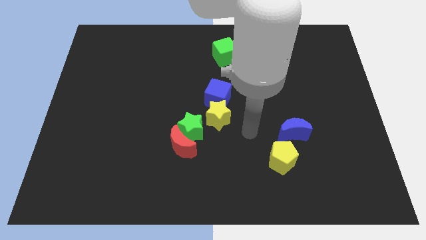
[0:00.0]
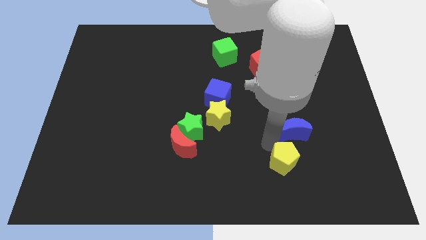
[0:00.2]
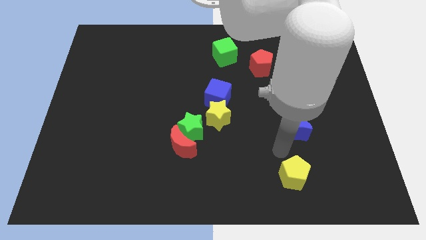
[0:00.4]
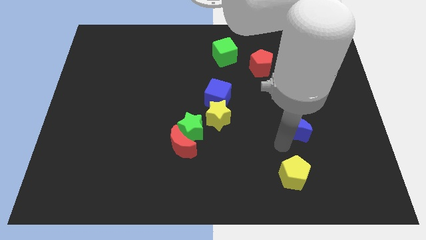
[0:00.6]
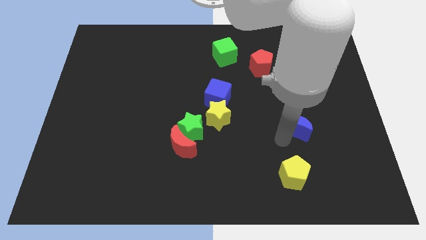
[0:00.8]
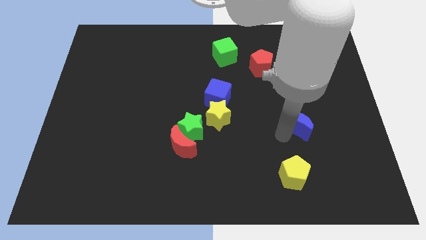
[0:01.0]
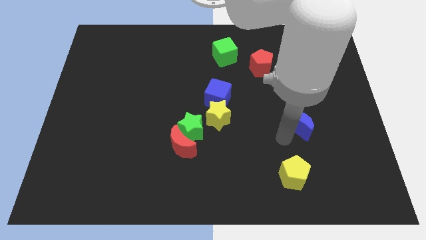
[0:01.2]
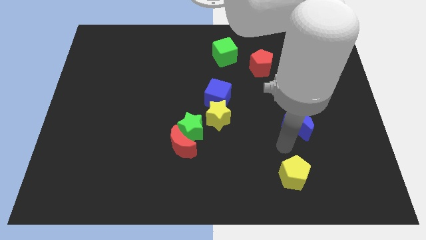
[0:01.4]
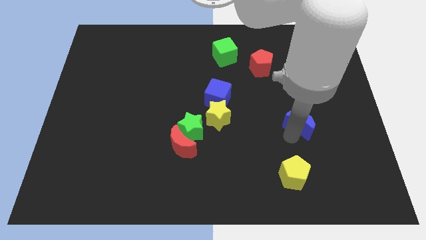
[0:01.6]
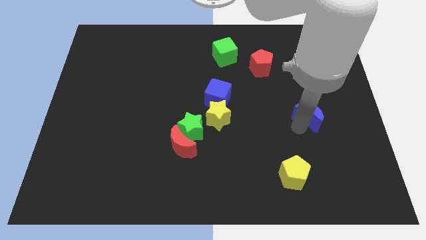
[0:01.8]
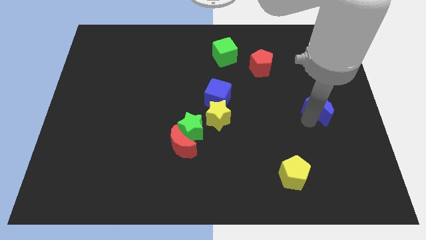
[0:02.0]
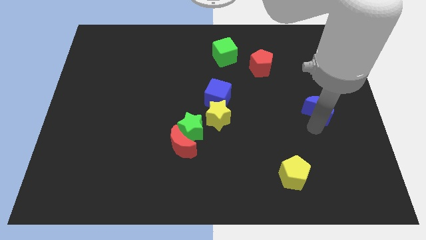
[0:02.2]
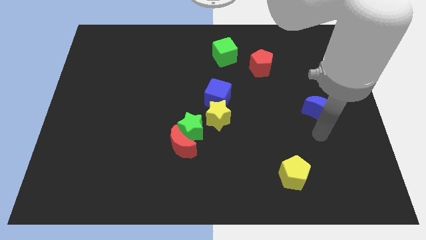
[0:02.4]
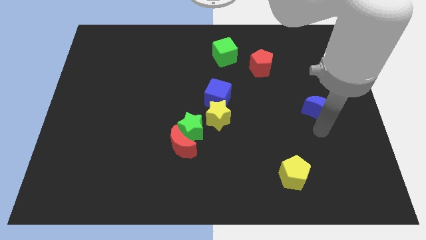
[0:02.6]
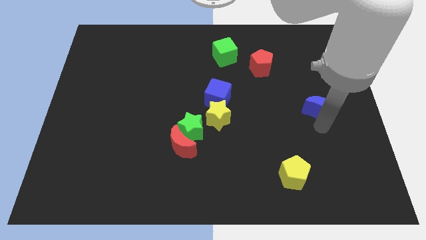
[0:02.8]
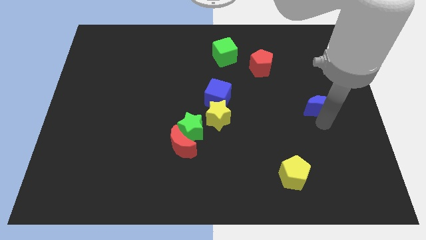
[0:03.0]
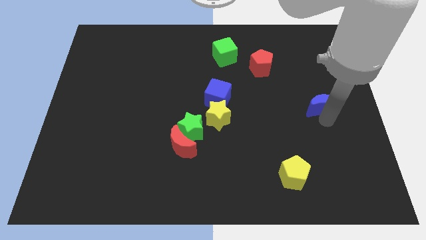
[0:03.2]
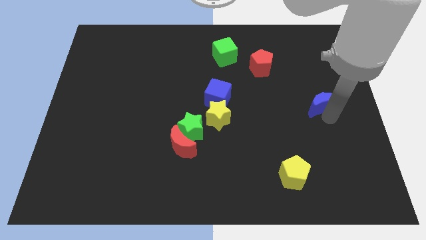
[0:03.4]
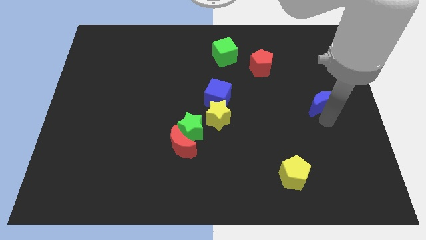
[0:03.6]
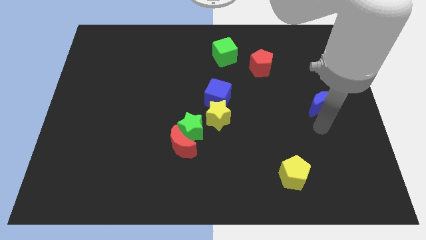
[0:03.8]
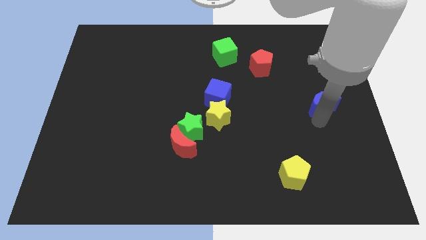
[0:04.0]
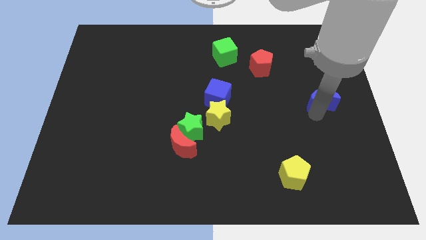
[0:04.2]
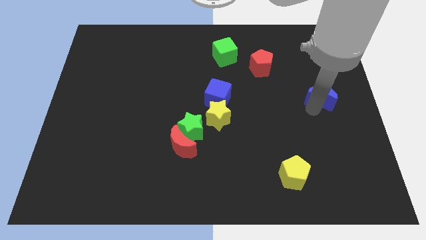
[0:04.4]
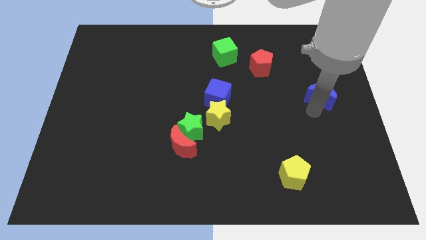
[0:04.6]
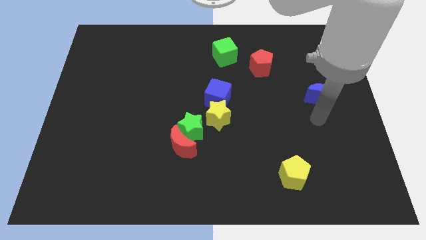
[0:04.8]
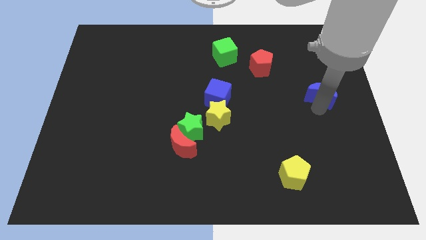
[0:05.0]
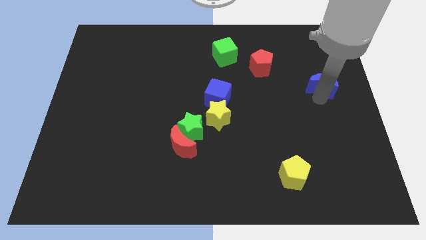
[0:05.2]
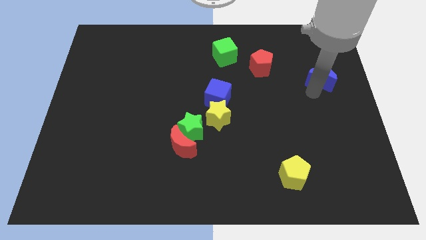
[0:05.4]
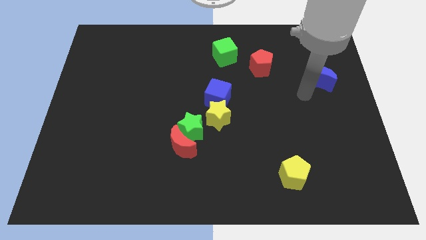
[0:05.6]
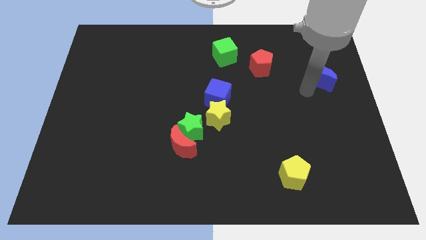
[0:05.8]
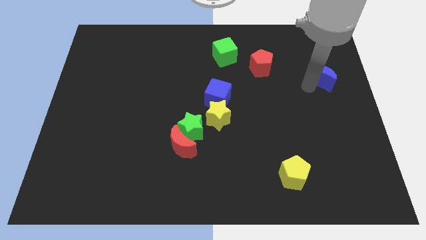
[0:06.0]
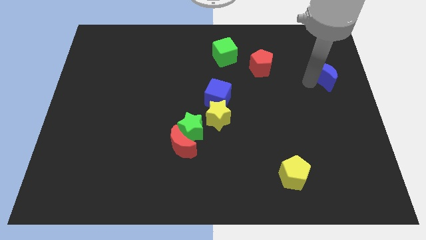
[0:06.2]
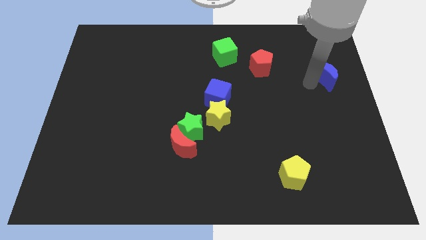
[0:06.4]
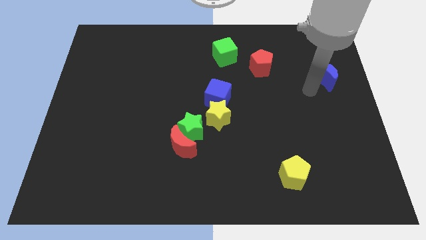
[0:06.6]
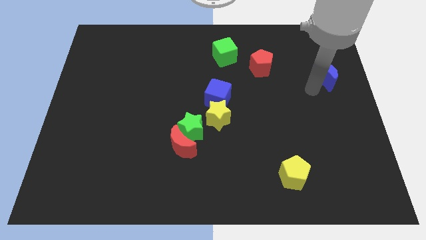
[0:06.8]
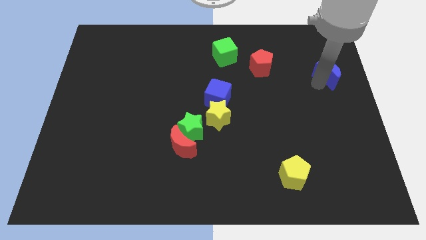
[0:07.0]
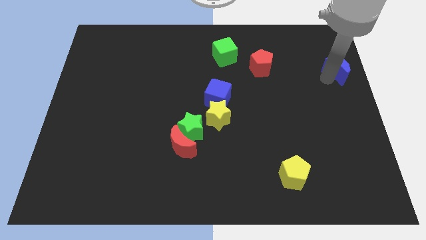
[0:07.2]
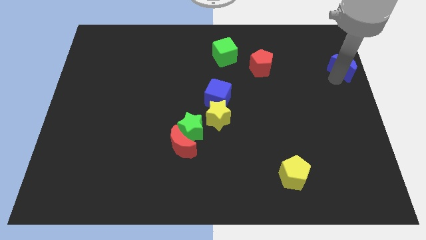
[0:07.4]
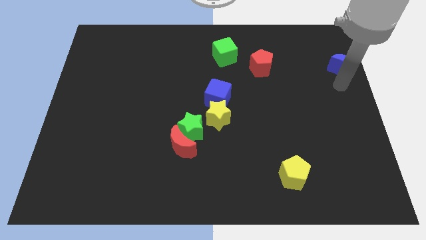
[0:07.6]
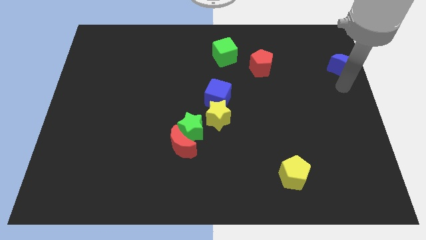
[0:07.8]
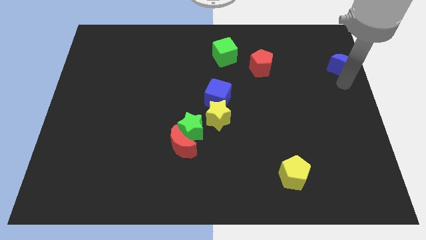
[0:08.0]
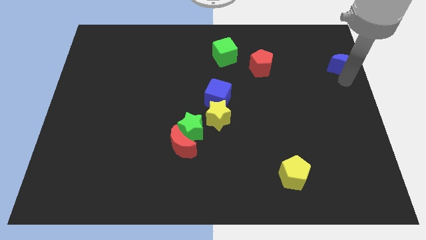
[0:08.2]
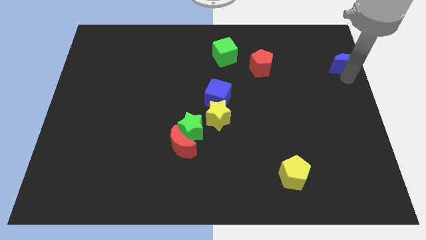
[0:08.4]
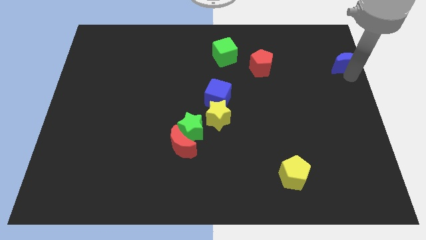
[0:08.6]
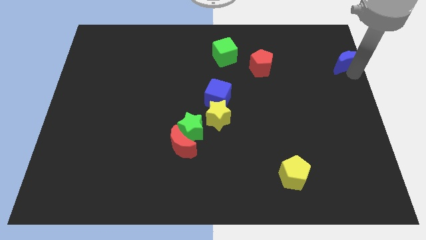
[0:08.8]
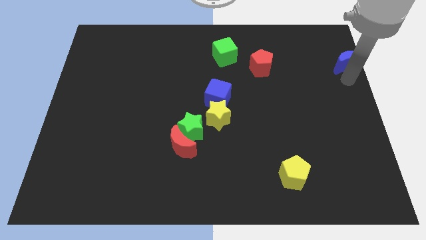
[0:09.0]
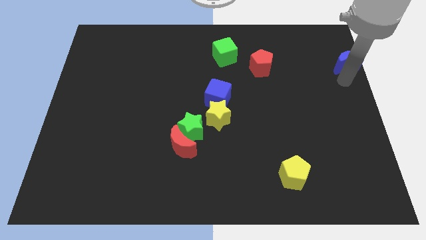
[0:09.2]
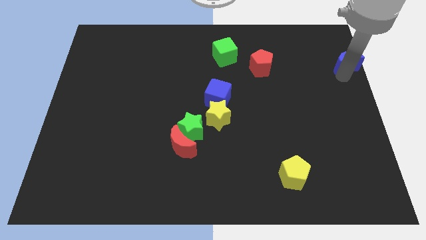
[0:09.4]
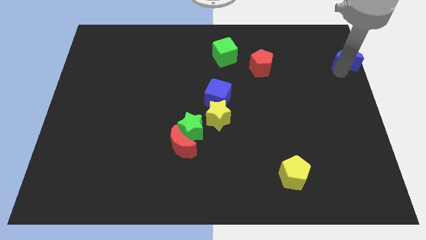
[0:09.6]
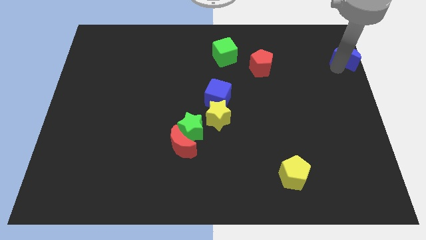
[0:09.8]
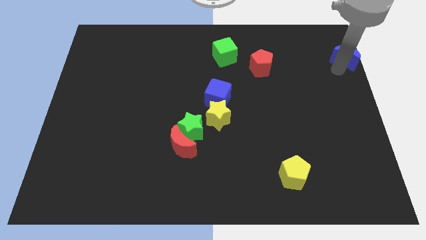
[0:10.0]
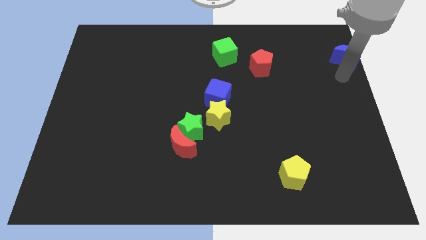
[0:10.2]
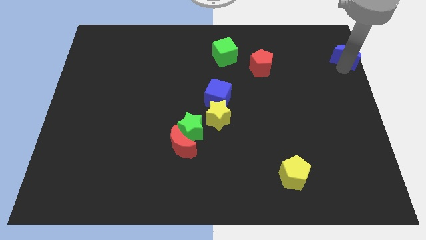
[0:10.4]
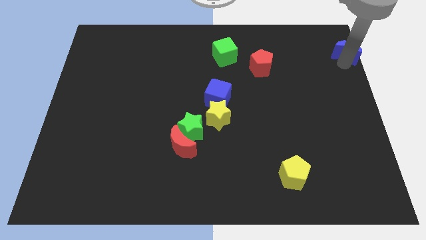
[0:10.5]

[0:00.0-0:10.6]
move the blue moon to the top right corner

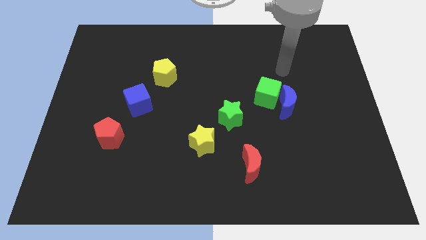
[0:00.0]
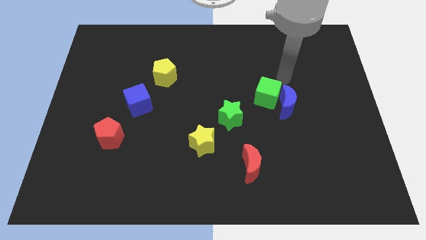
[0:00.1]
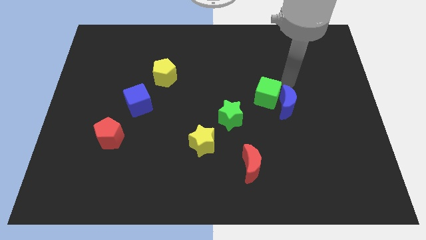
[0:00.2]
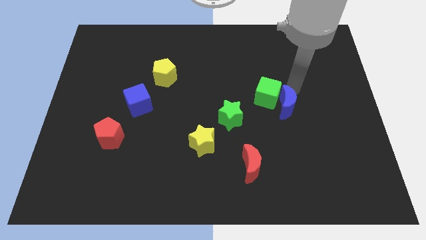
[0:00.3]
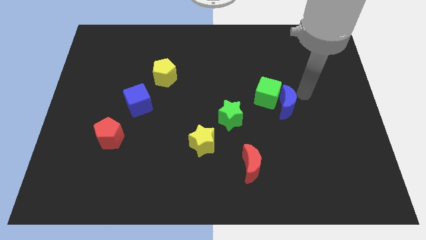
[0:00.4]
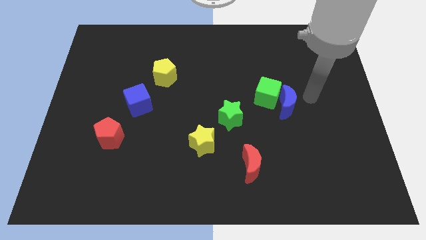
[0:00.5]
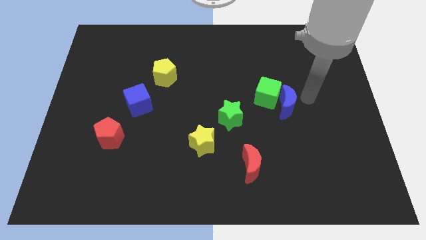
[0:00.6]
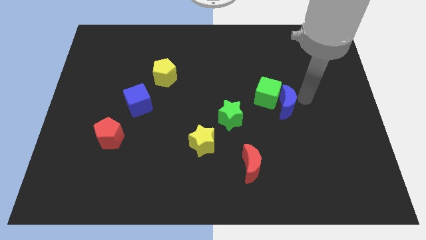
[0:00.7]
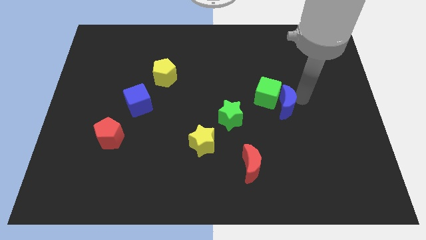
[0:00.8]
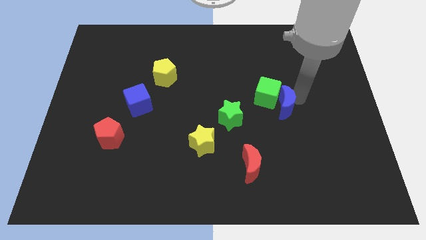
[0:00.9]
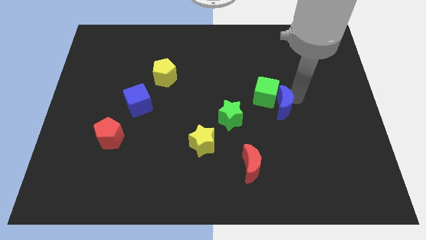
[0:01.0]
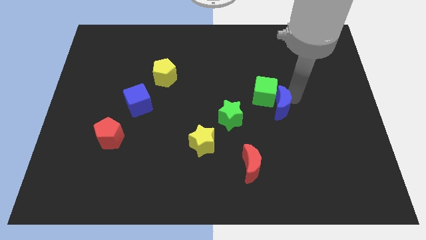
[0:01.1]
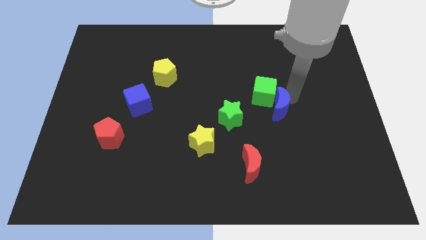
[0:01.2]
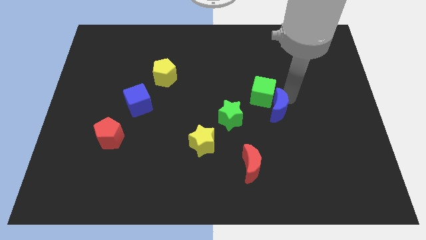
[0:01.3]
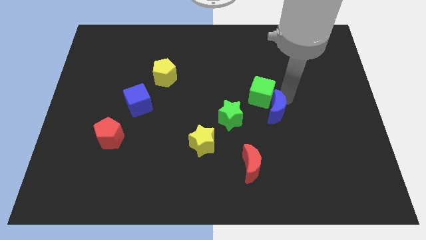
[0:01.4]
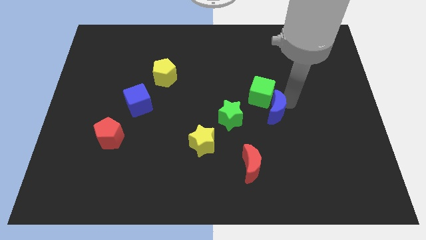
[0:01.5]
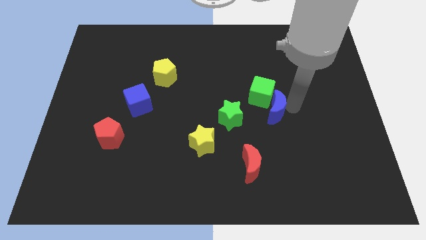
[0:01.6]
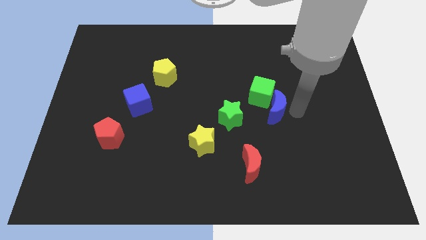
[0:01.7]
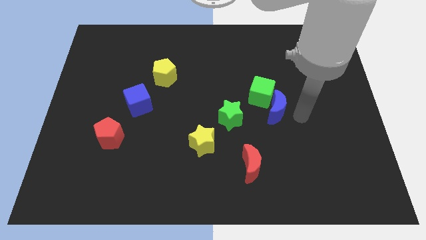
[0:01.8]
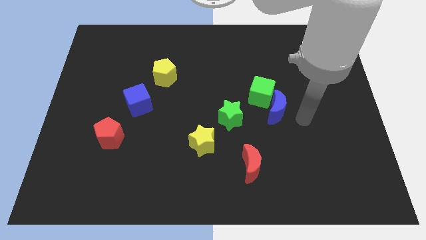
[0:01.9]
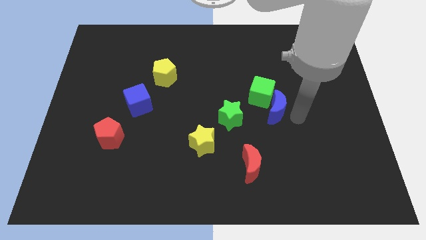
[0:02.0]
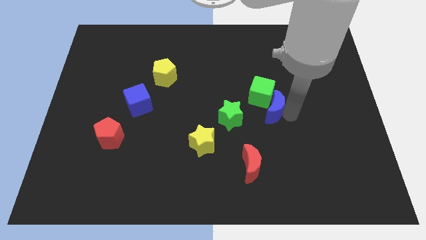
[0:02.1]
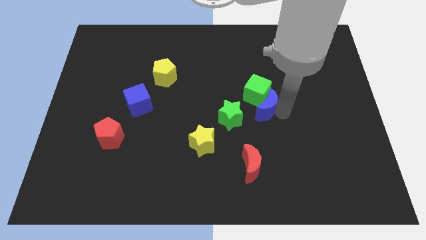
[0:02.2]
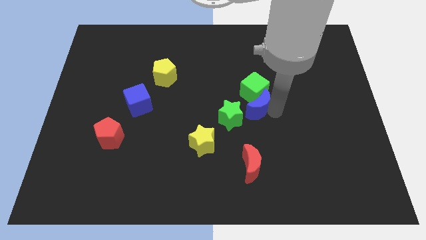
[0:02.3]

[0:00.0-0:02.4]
push the blue moon to the middle
